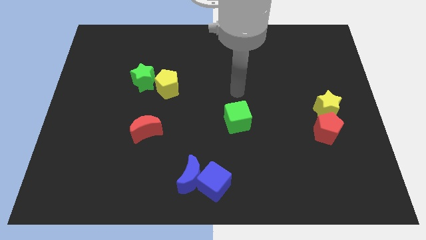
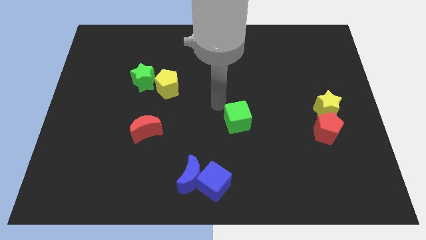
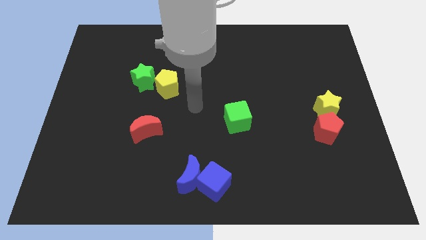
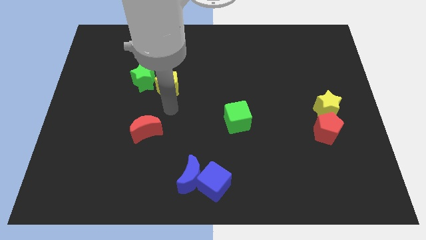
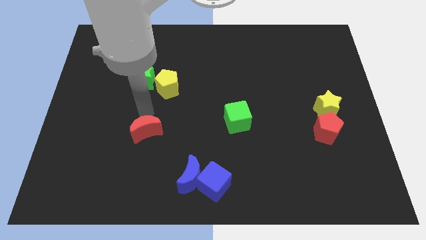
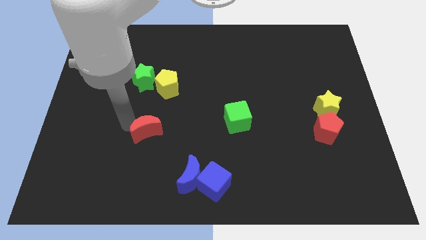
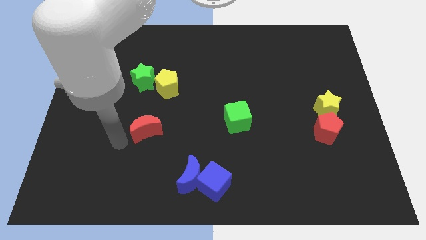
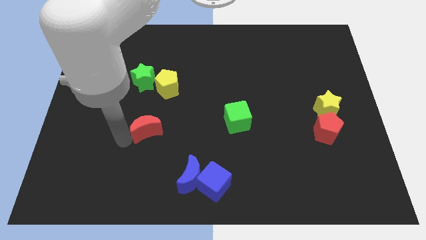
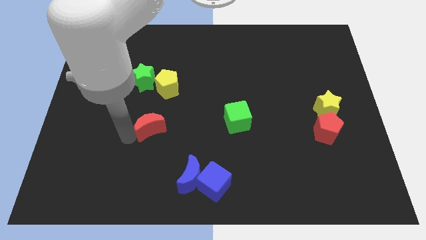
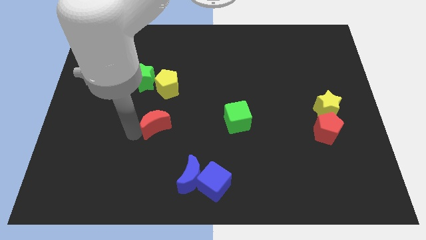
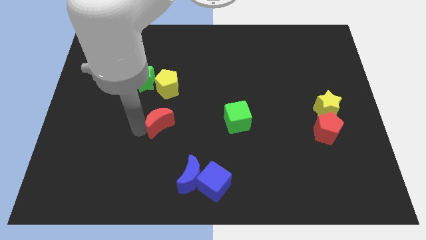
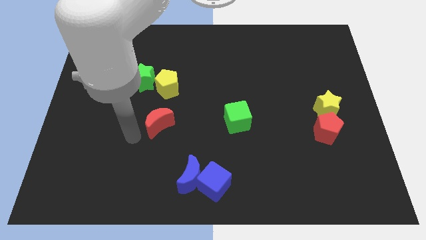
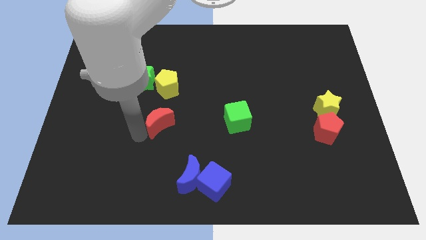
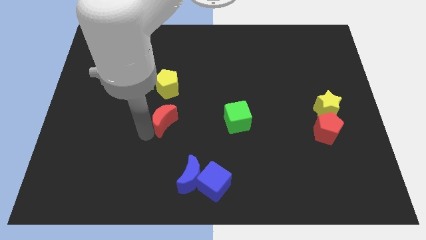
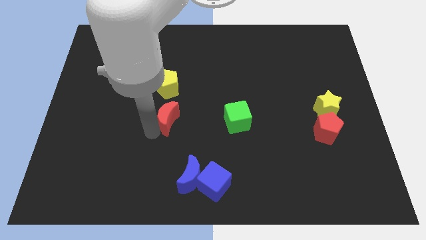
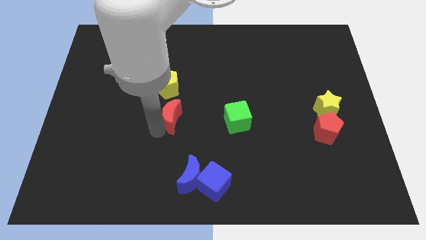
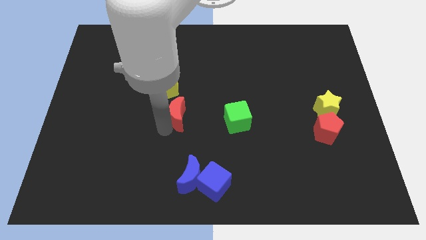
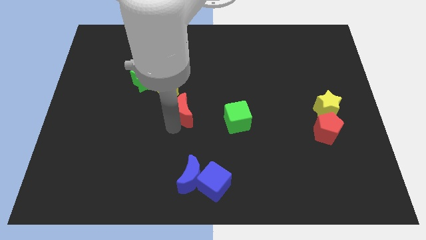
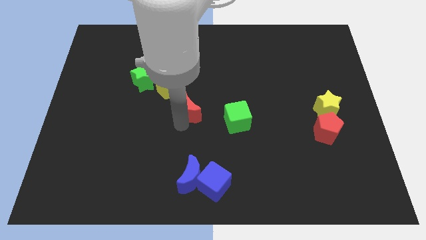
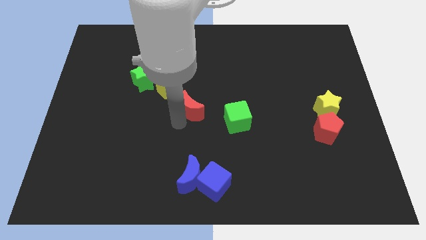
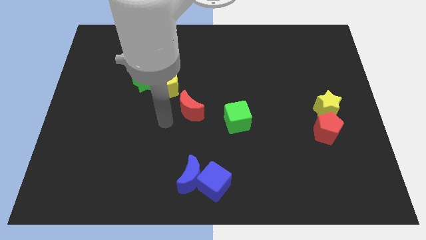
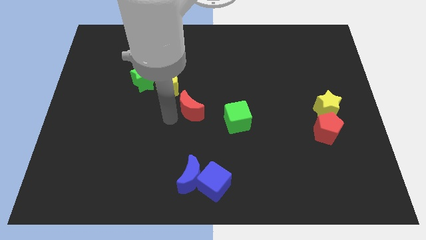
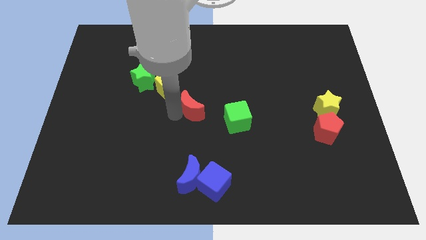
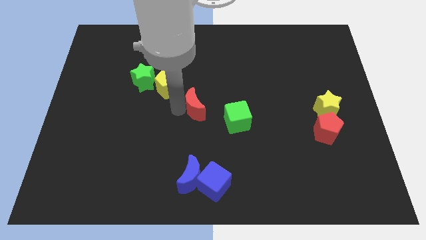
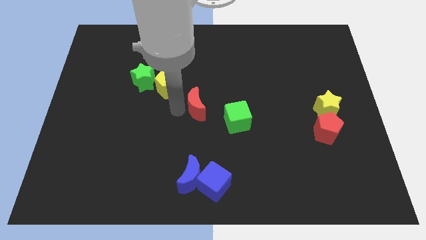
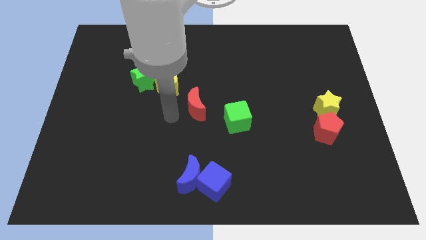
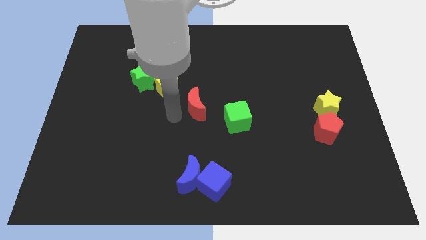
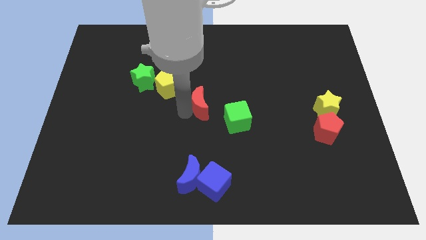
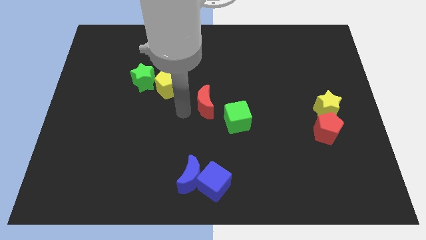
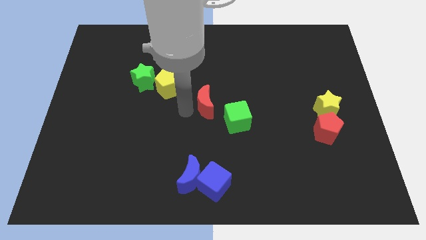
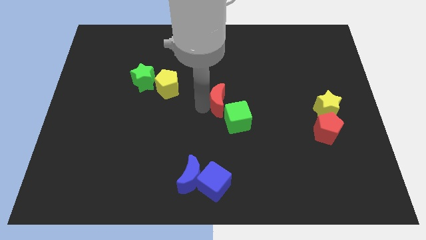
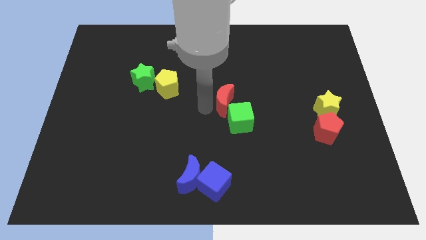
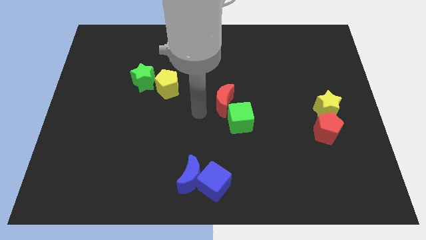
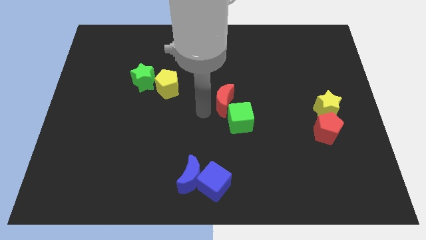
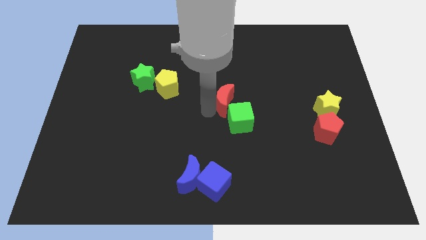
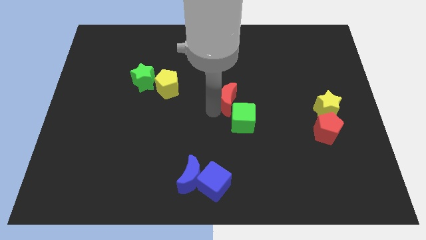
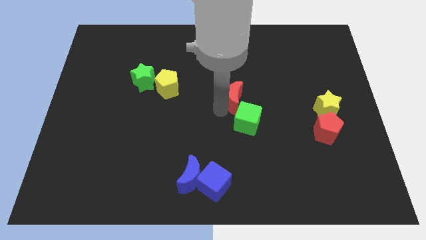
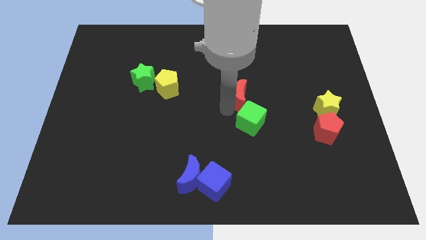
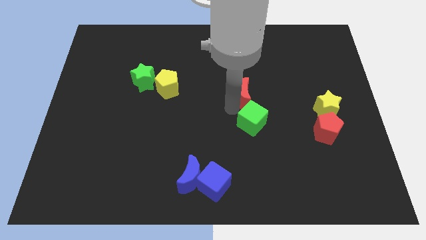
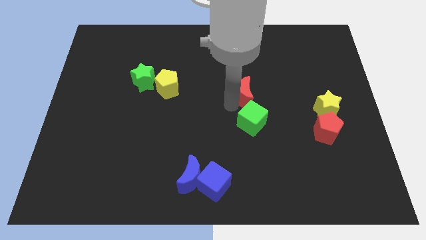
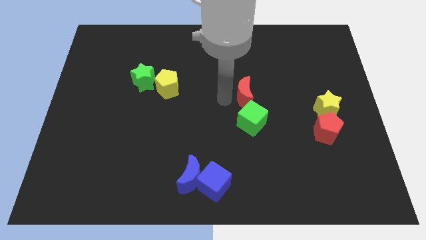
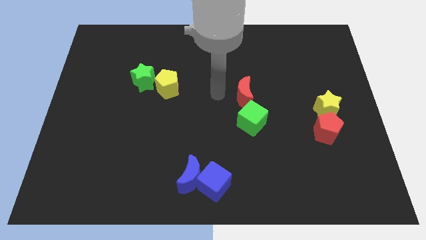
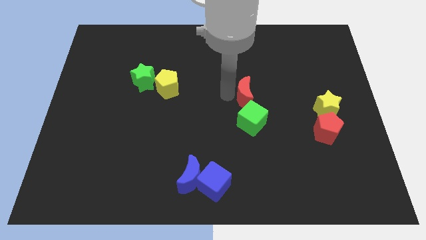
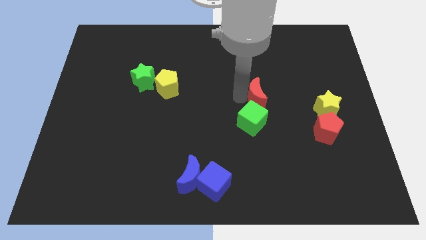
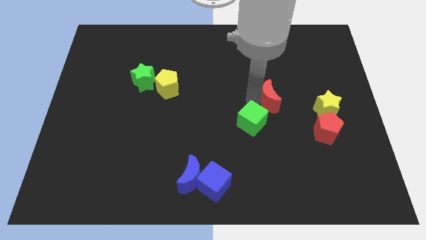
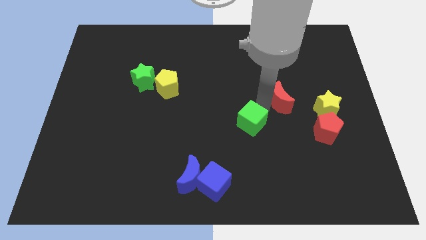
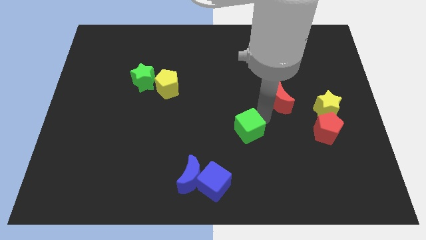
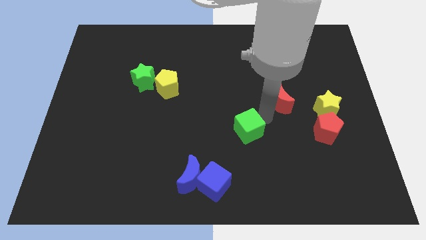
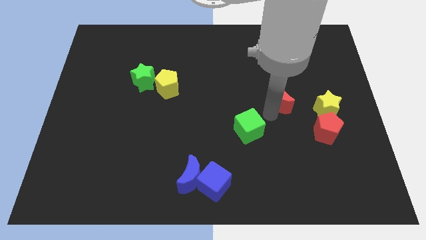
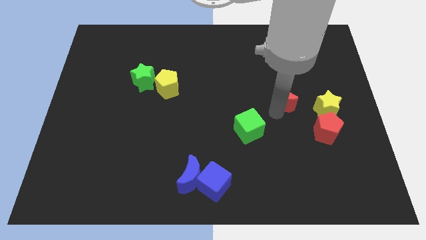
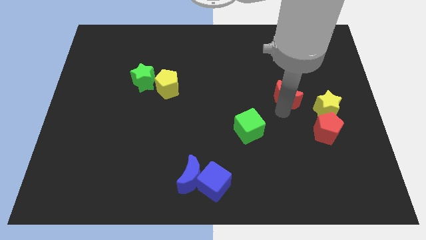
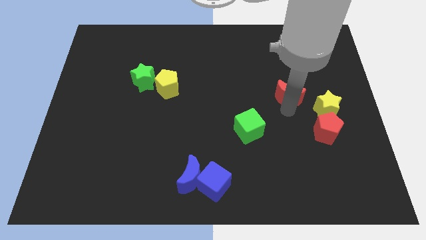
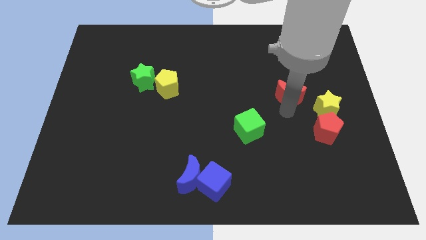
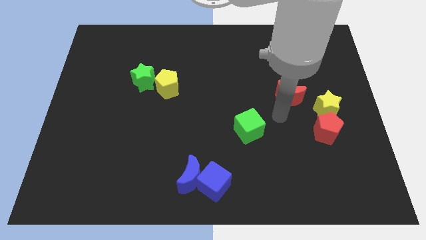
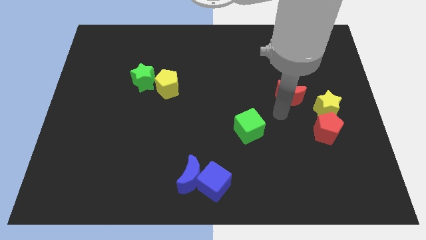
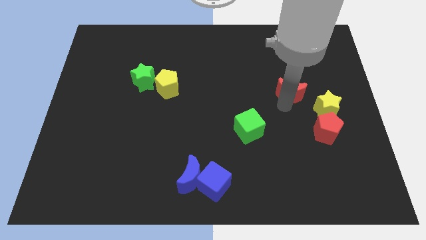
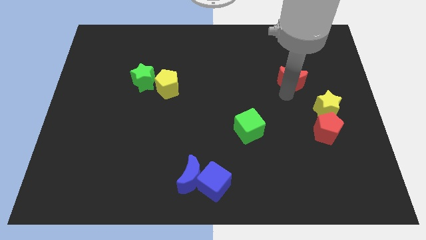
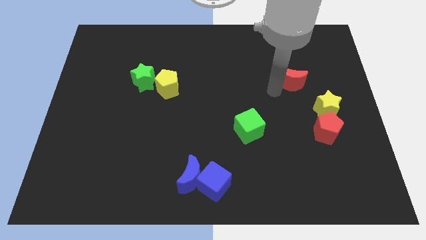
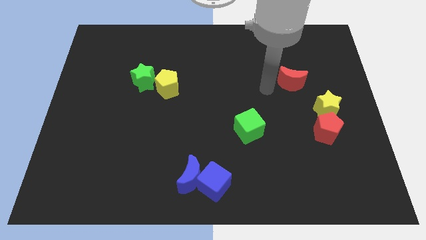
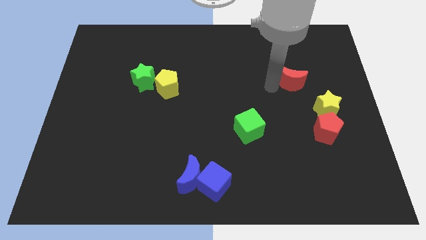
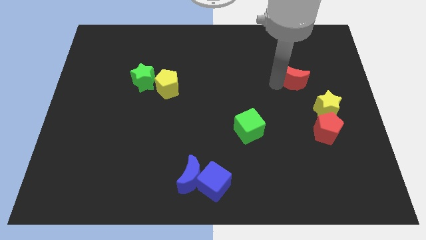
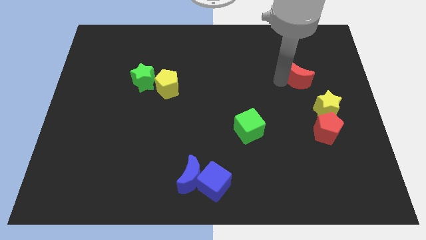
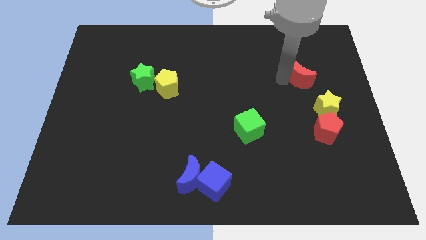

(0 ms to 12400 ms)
move the red moon above the yellow star

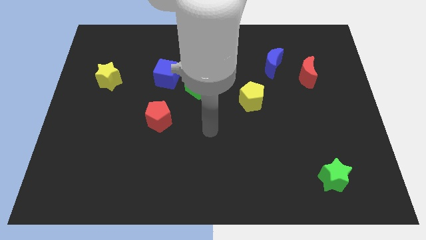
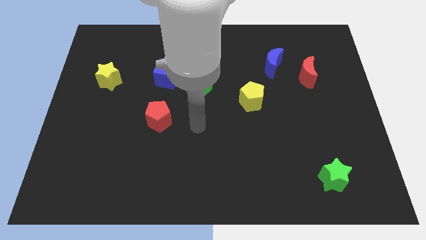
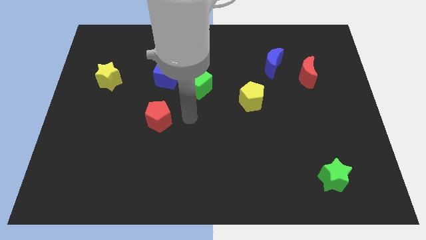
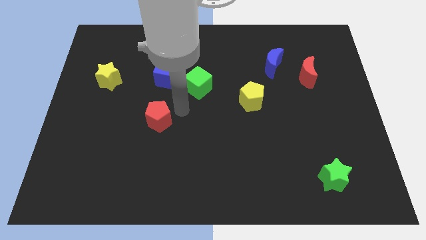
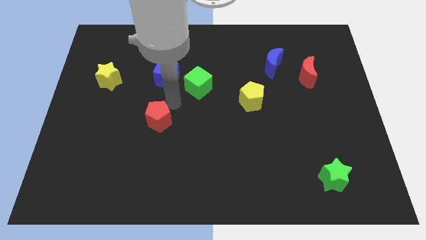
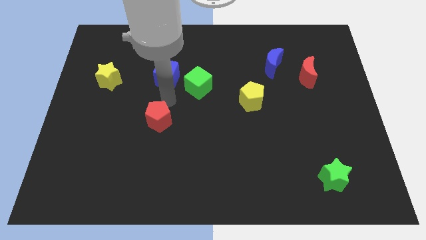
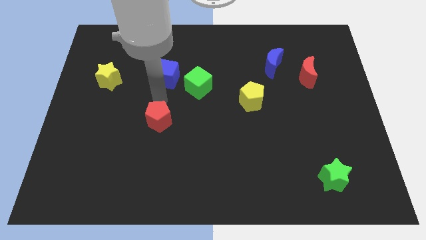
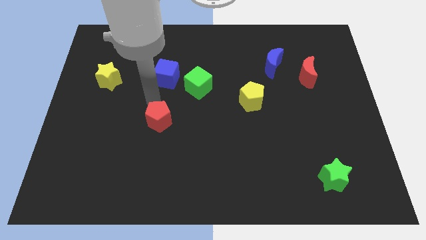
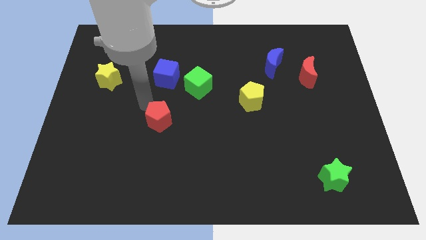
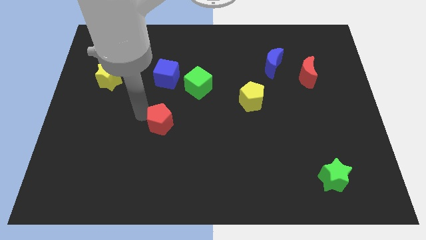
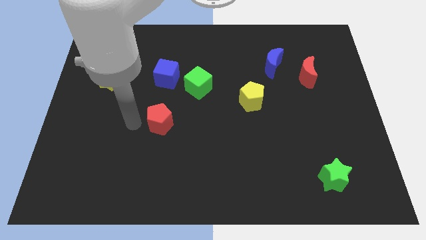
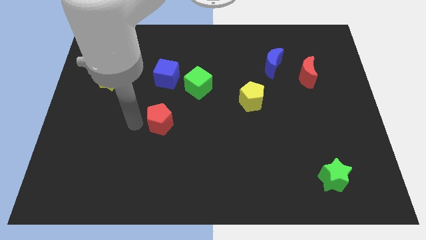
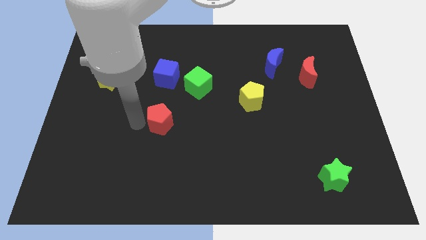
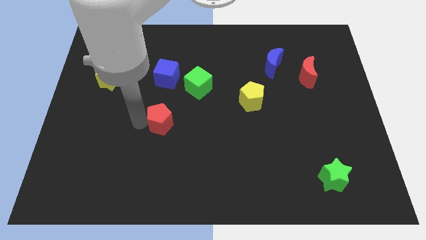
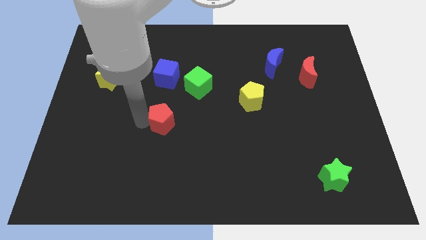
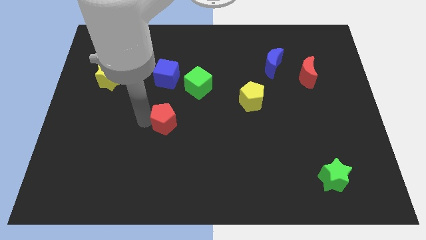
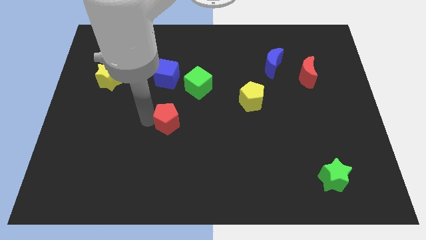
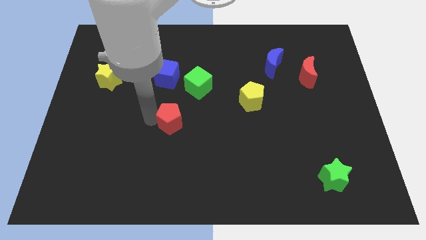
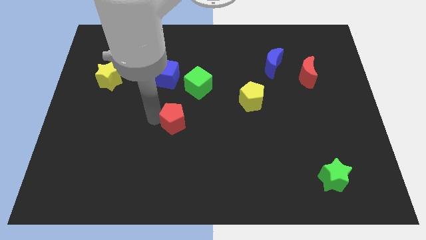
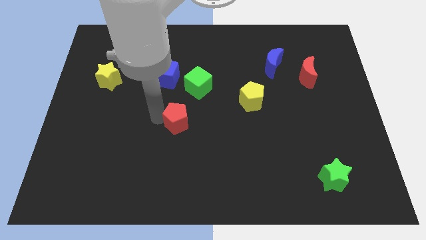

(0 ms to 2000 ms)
slide the red pentagon to the bottom of the green cube
